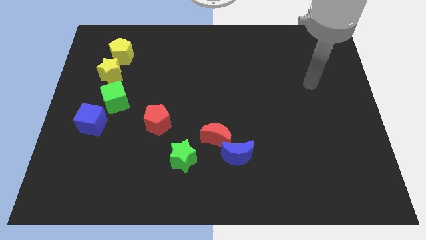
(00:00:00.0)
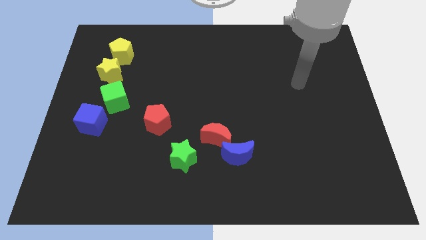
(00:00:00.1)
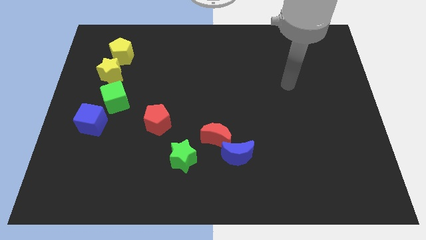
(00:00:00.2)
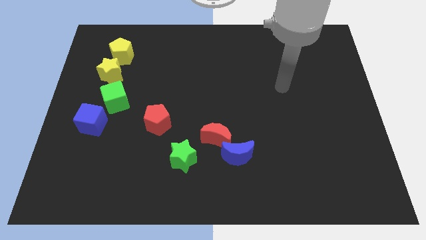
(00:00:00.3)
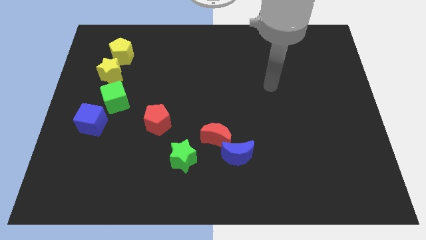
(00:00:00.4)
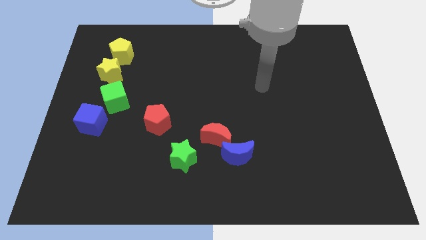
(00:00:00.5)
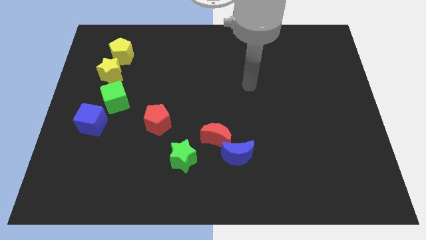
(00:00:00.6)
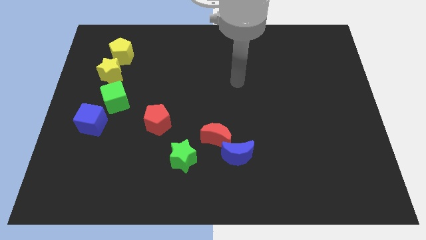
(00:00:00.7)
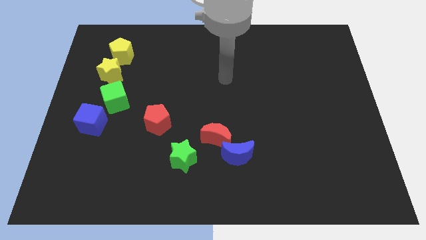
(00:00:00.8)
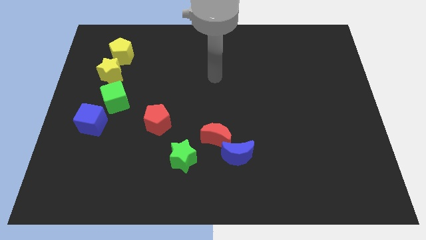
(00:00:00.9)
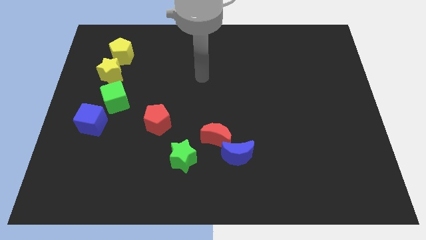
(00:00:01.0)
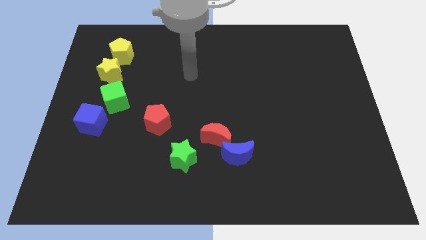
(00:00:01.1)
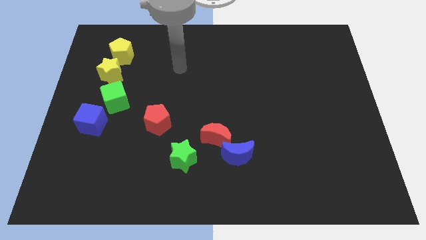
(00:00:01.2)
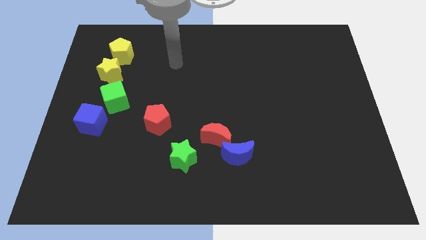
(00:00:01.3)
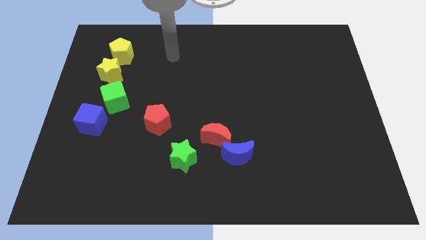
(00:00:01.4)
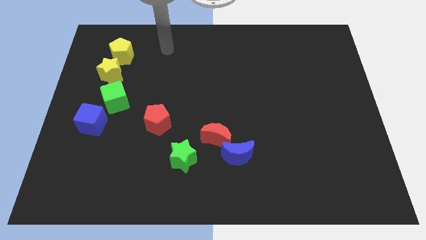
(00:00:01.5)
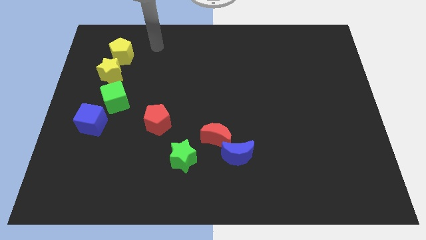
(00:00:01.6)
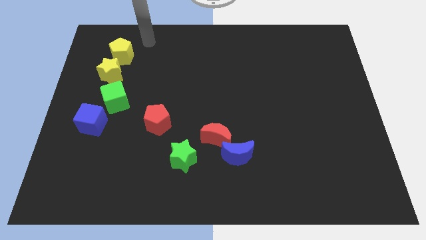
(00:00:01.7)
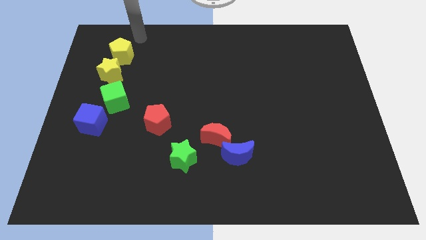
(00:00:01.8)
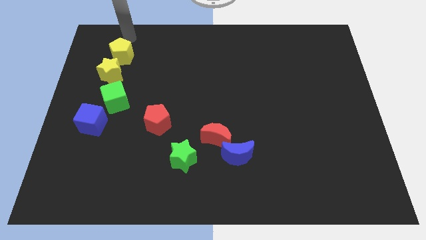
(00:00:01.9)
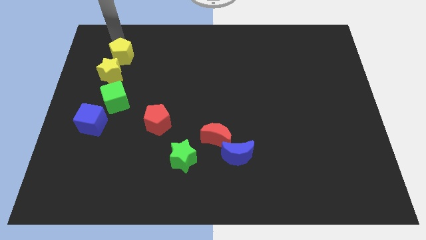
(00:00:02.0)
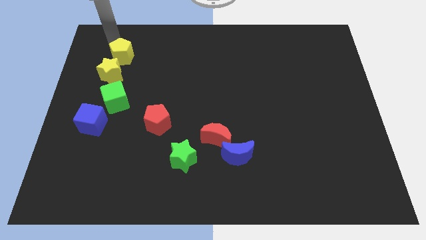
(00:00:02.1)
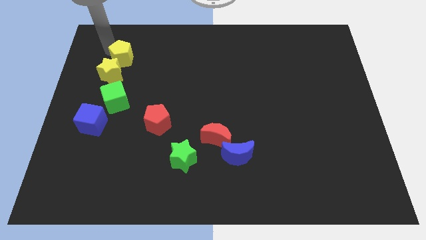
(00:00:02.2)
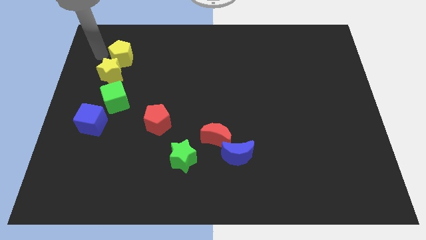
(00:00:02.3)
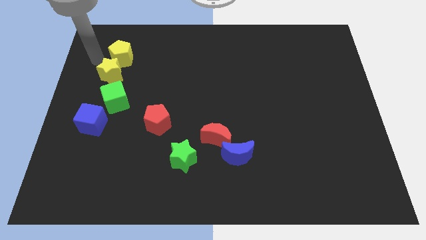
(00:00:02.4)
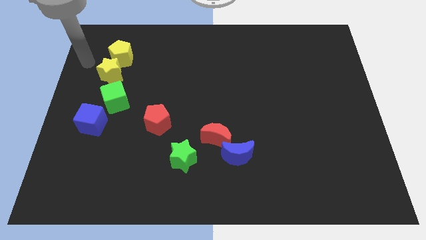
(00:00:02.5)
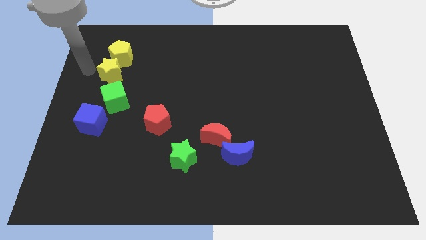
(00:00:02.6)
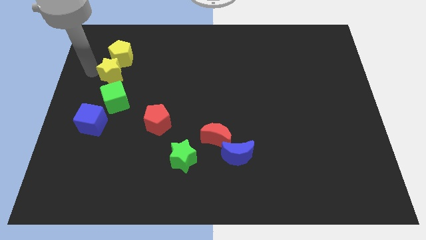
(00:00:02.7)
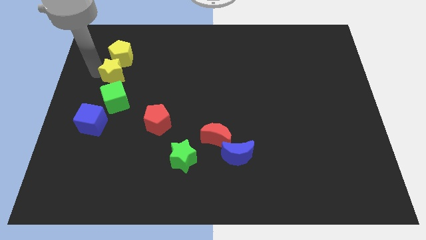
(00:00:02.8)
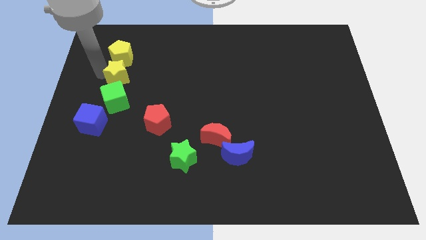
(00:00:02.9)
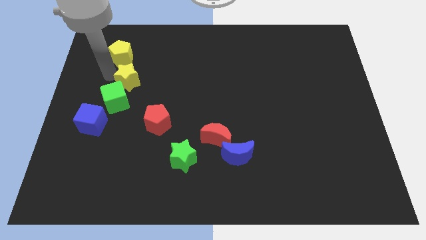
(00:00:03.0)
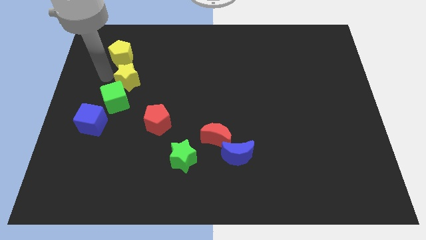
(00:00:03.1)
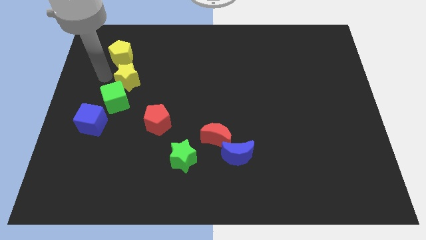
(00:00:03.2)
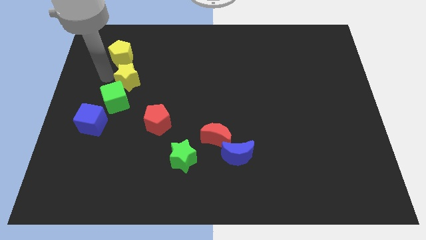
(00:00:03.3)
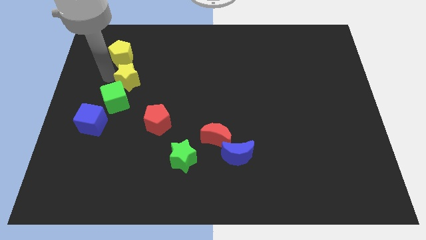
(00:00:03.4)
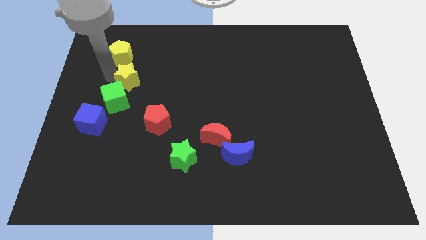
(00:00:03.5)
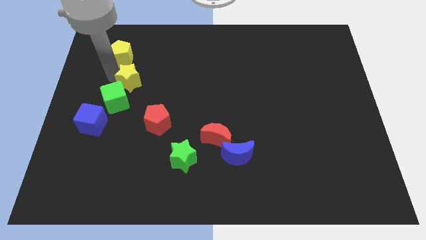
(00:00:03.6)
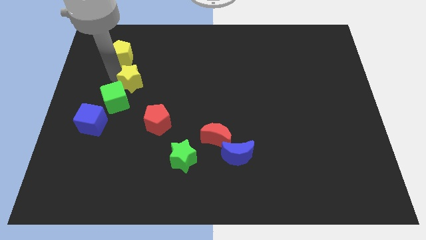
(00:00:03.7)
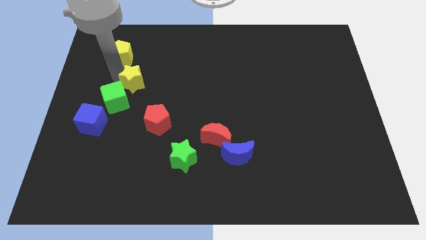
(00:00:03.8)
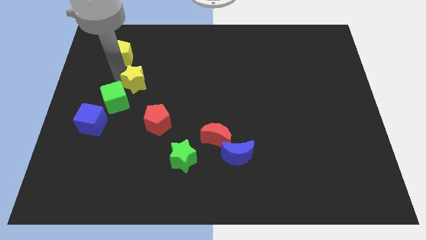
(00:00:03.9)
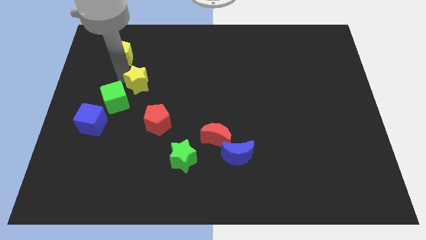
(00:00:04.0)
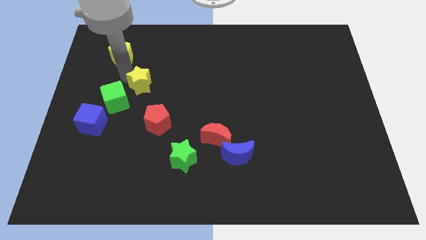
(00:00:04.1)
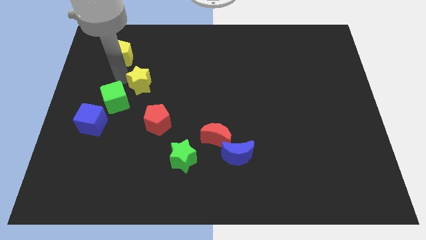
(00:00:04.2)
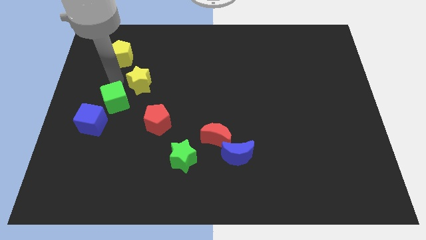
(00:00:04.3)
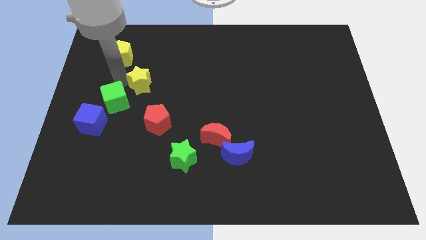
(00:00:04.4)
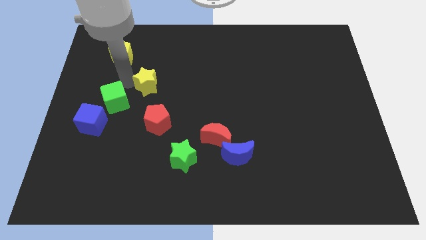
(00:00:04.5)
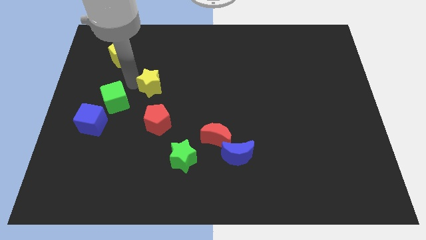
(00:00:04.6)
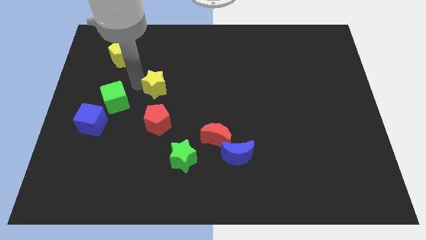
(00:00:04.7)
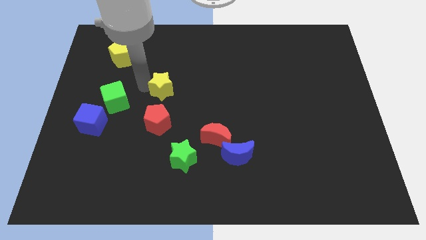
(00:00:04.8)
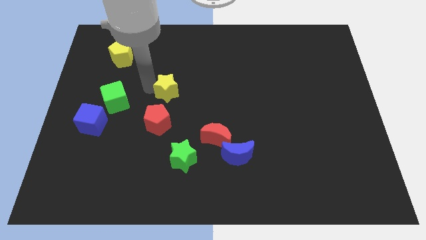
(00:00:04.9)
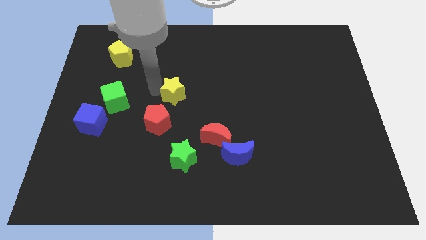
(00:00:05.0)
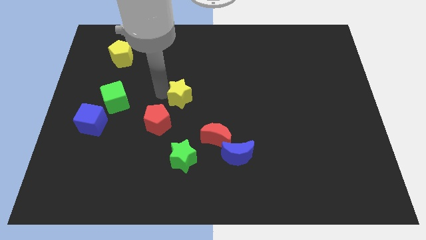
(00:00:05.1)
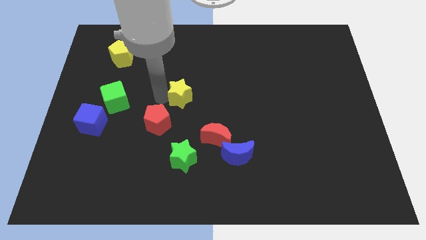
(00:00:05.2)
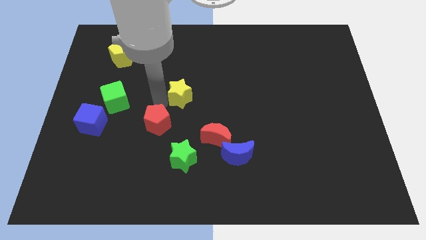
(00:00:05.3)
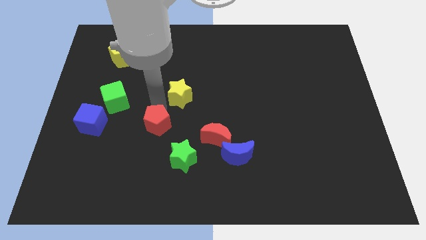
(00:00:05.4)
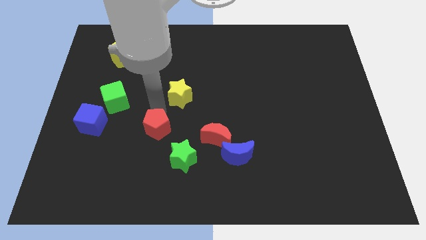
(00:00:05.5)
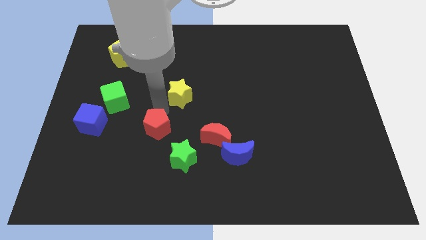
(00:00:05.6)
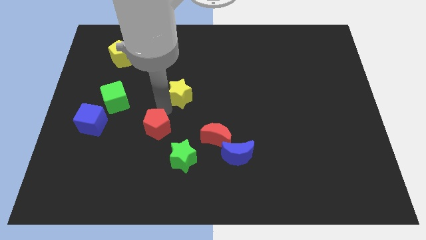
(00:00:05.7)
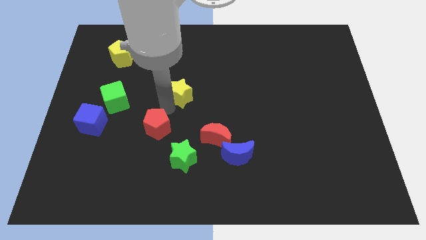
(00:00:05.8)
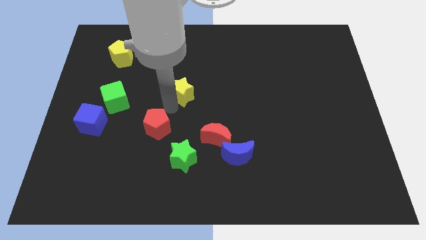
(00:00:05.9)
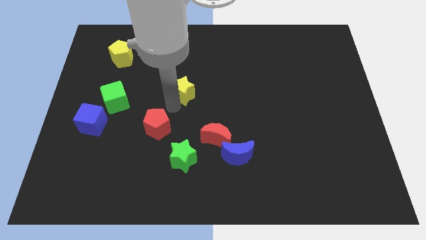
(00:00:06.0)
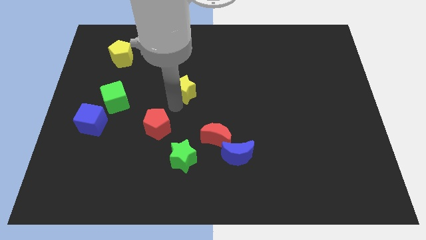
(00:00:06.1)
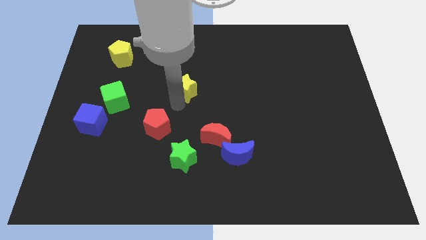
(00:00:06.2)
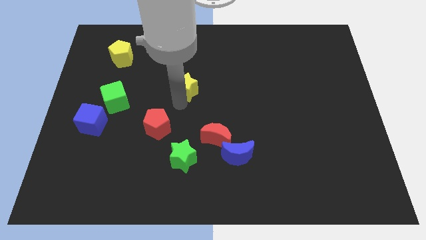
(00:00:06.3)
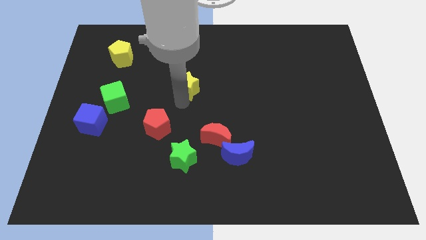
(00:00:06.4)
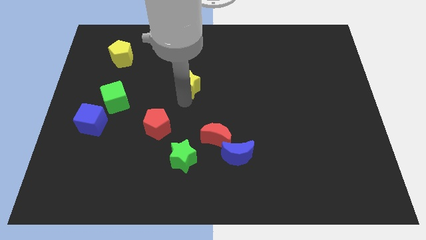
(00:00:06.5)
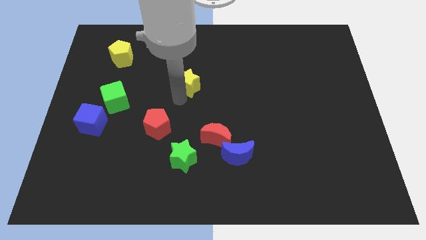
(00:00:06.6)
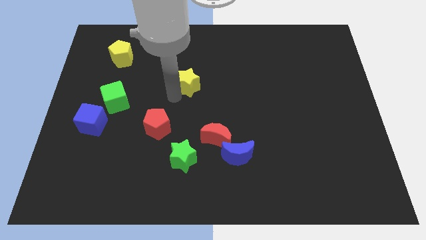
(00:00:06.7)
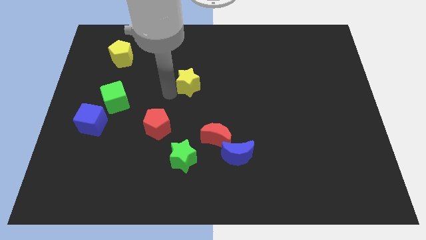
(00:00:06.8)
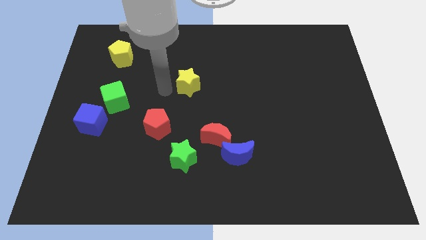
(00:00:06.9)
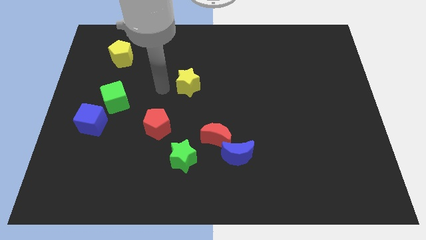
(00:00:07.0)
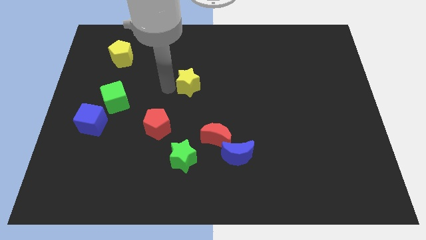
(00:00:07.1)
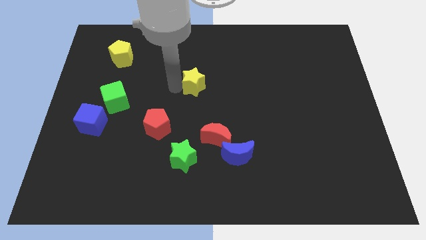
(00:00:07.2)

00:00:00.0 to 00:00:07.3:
slide the yellow star right

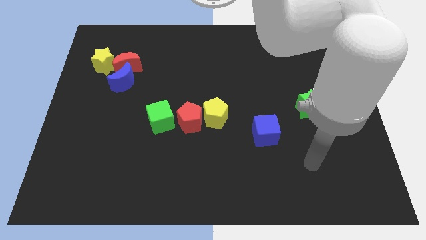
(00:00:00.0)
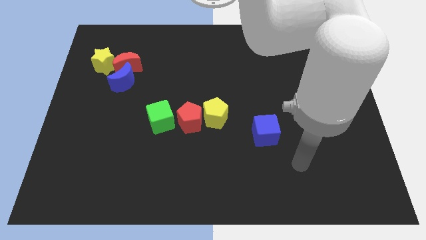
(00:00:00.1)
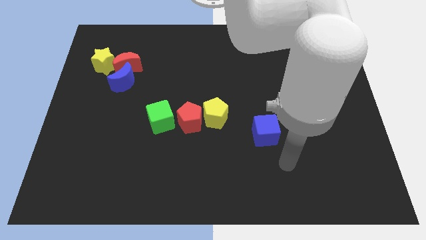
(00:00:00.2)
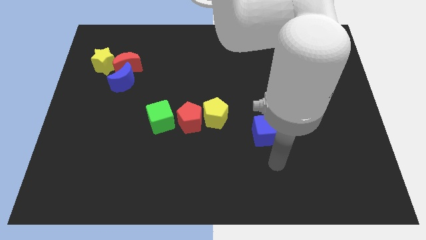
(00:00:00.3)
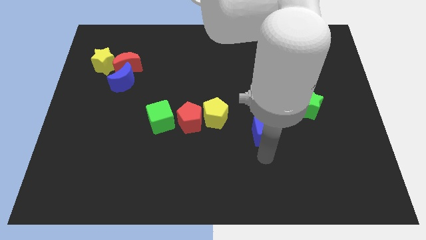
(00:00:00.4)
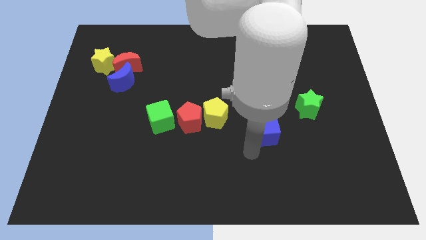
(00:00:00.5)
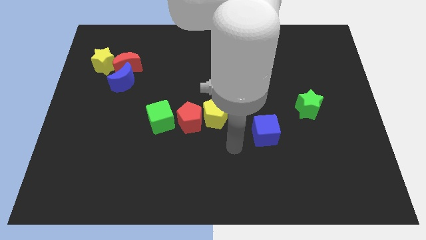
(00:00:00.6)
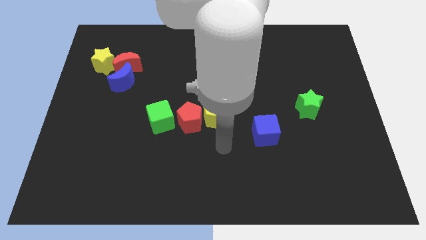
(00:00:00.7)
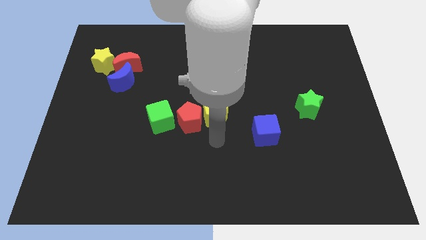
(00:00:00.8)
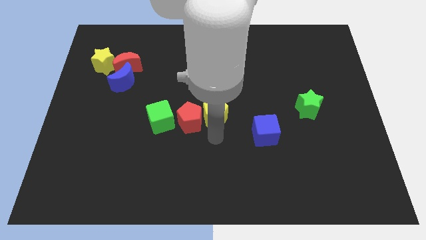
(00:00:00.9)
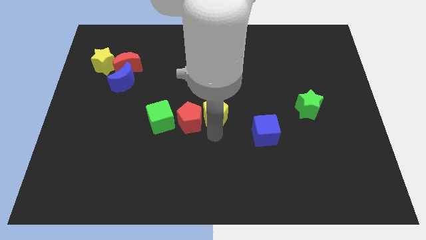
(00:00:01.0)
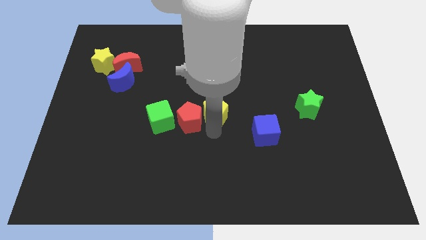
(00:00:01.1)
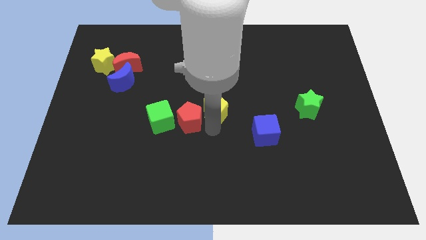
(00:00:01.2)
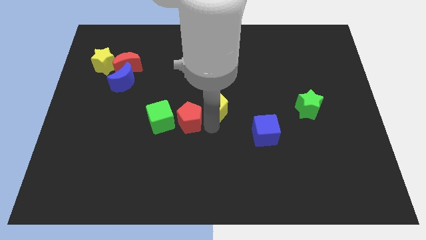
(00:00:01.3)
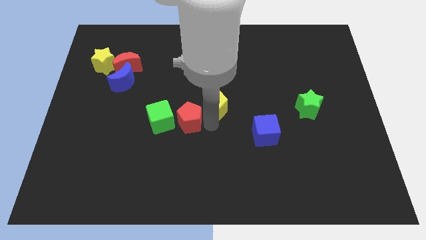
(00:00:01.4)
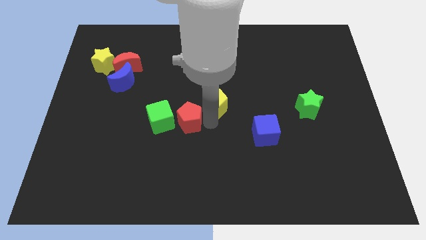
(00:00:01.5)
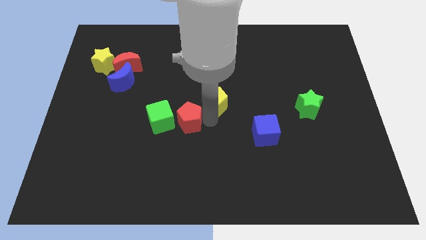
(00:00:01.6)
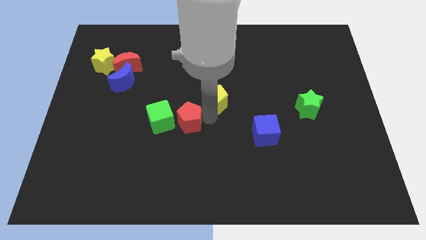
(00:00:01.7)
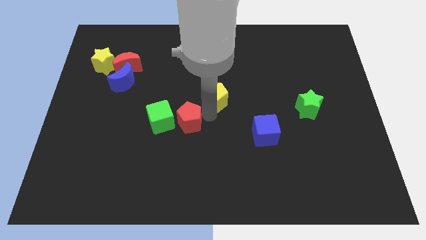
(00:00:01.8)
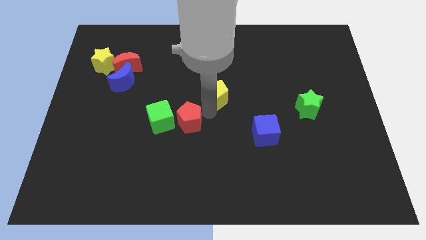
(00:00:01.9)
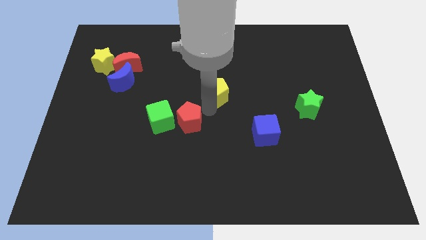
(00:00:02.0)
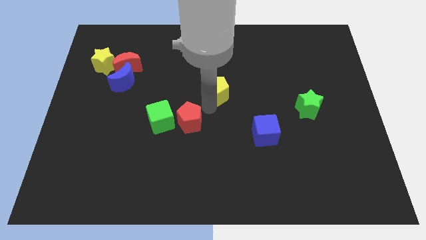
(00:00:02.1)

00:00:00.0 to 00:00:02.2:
push the yellow pentagon up a bit
